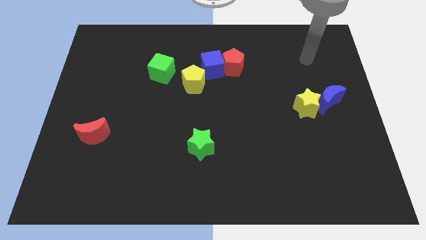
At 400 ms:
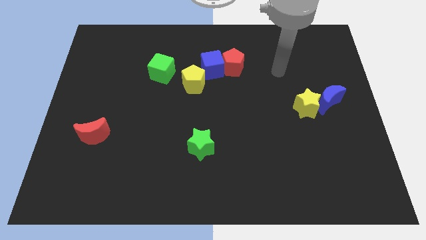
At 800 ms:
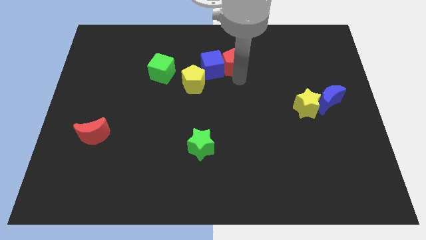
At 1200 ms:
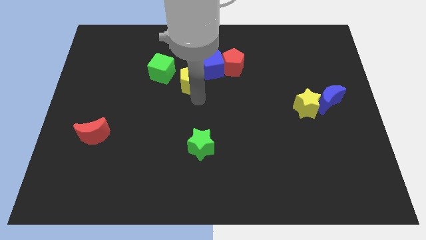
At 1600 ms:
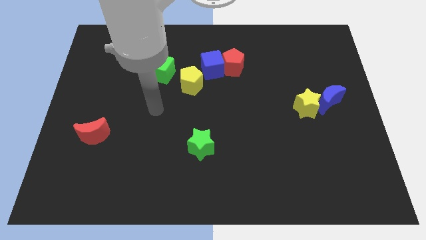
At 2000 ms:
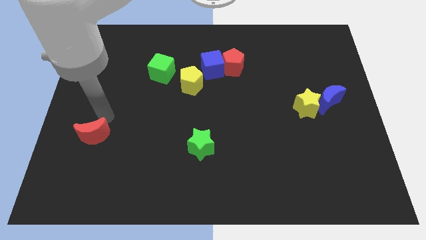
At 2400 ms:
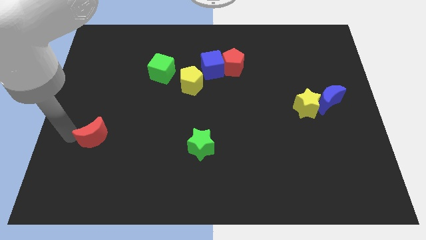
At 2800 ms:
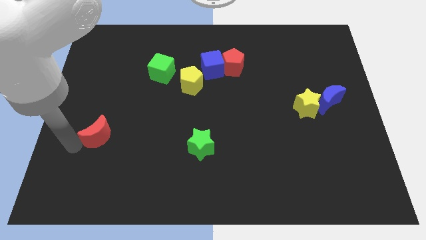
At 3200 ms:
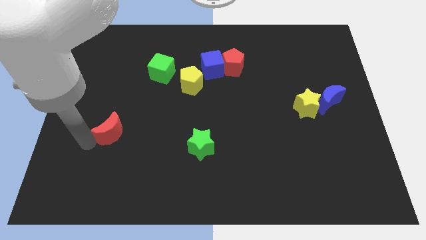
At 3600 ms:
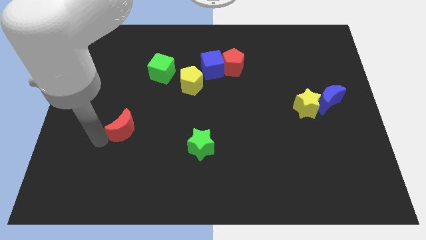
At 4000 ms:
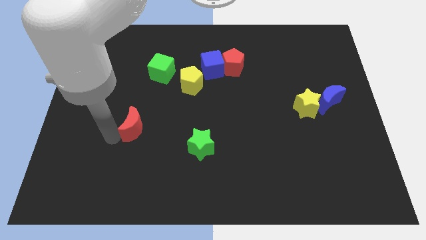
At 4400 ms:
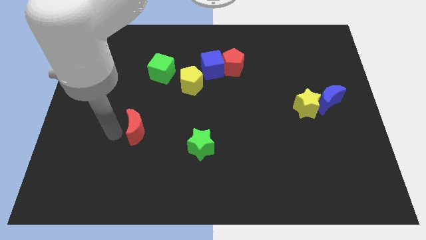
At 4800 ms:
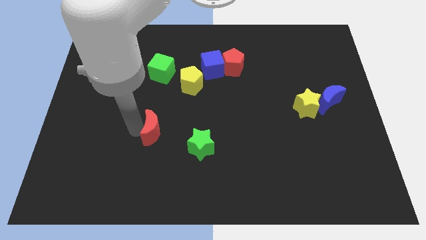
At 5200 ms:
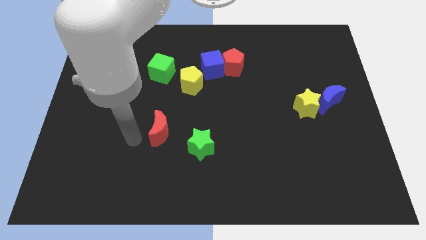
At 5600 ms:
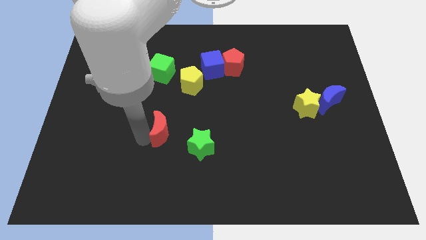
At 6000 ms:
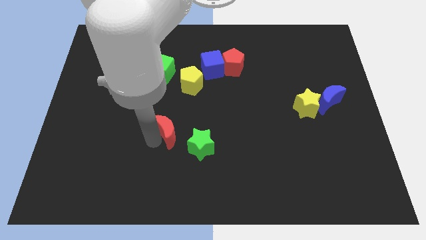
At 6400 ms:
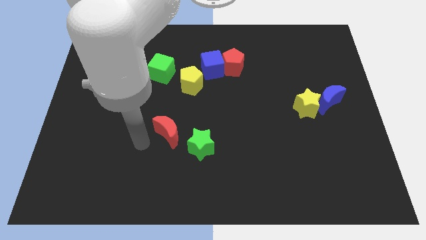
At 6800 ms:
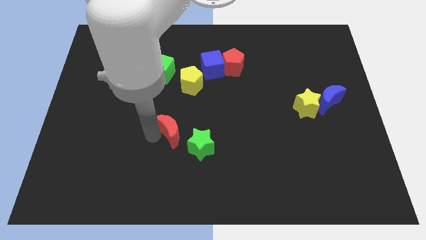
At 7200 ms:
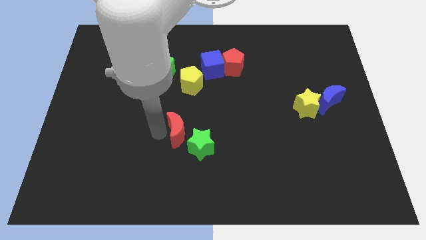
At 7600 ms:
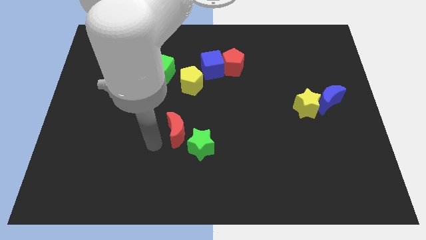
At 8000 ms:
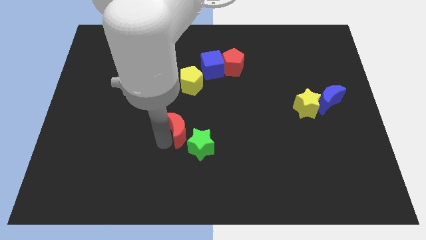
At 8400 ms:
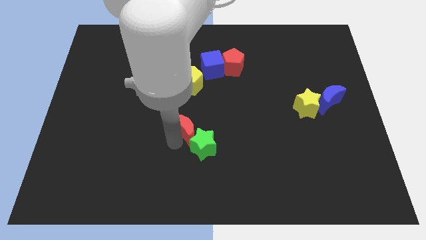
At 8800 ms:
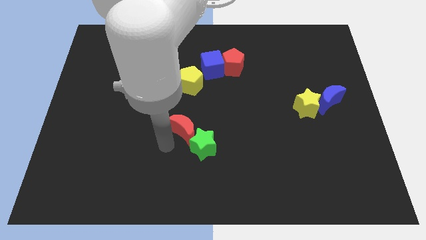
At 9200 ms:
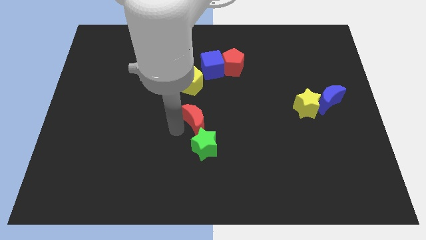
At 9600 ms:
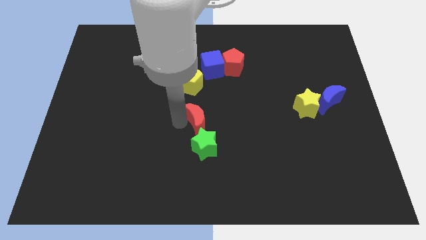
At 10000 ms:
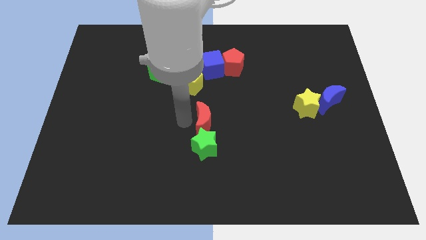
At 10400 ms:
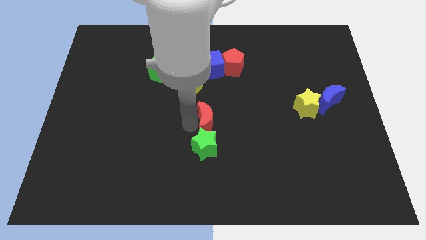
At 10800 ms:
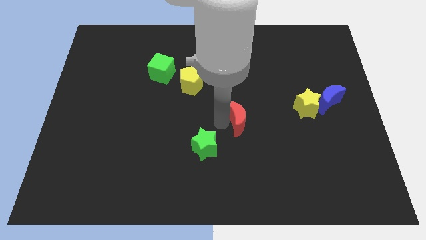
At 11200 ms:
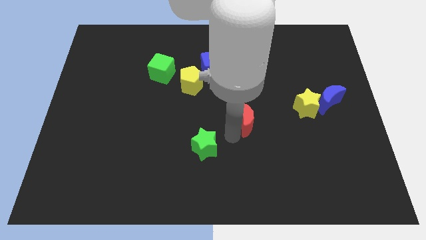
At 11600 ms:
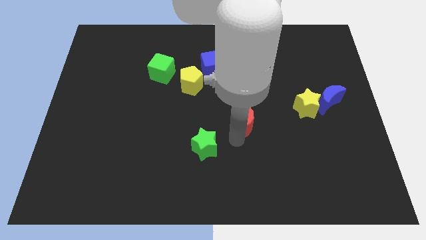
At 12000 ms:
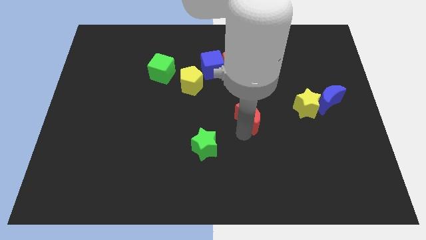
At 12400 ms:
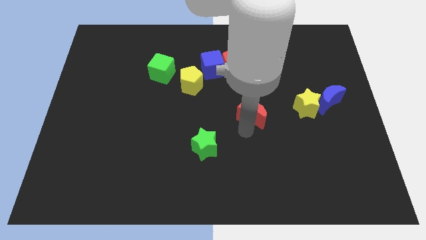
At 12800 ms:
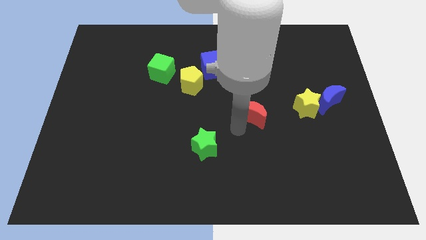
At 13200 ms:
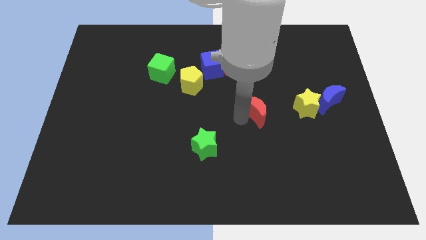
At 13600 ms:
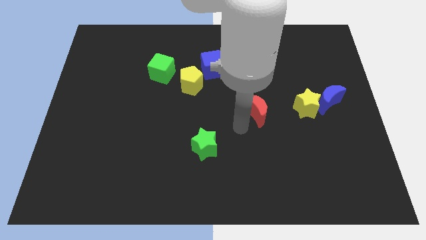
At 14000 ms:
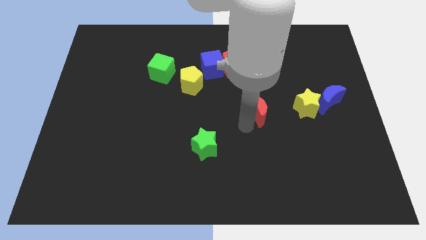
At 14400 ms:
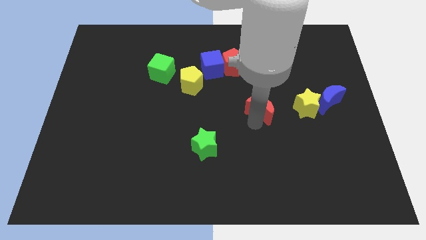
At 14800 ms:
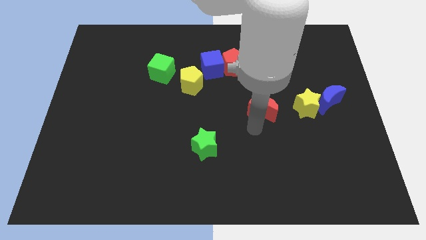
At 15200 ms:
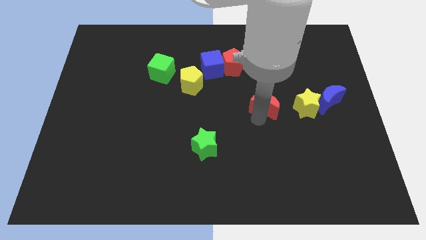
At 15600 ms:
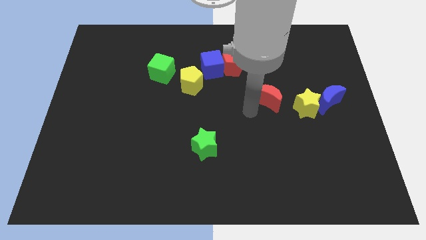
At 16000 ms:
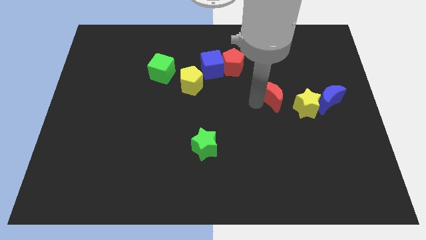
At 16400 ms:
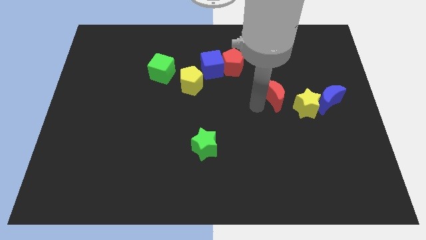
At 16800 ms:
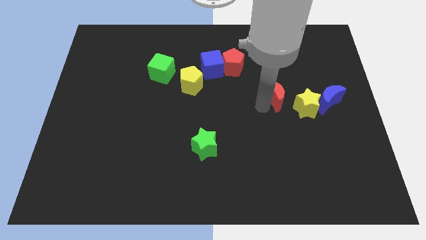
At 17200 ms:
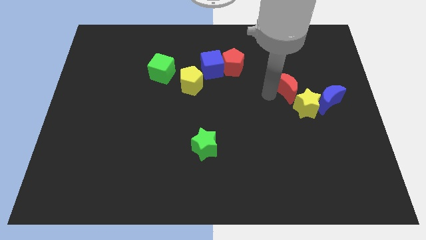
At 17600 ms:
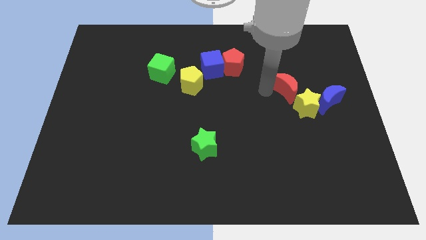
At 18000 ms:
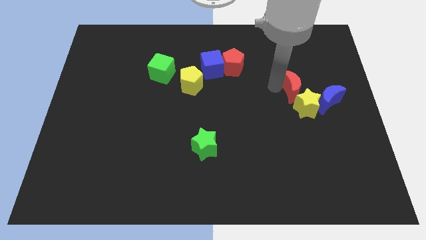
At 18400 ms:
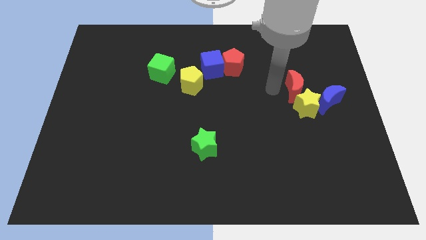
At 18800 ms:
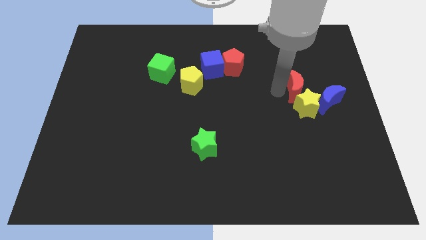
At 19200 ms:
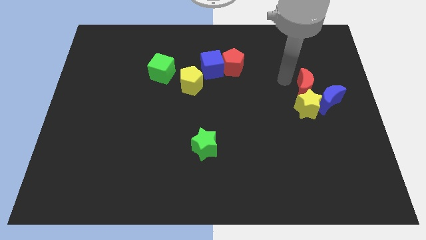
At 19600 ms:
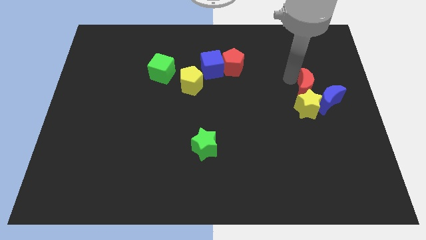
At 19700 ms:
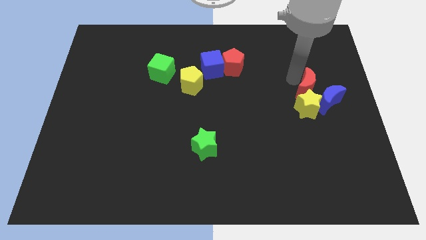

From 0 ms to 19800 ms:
put the red moon next to the blue moon

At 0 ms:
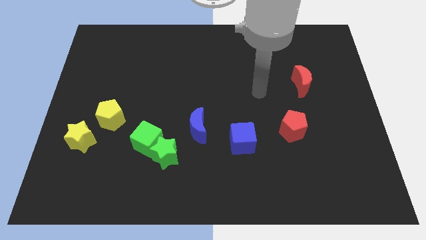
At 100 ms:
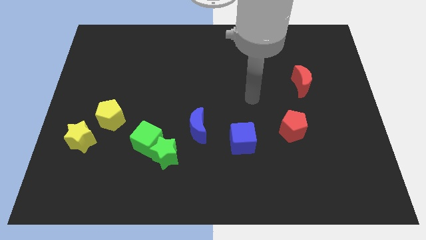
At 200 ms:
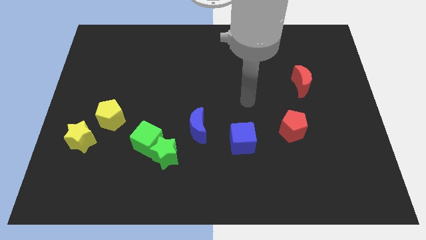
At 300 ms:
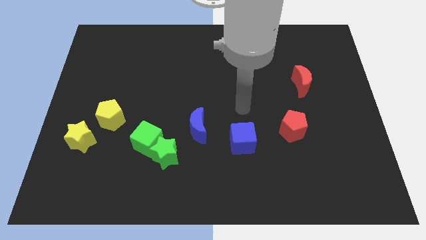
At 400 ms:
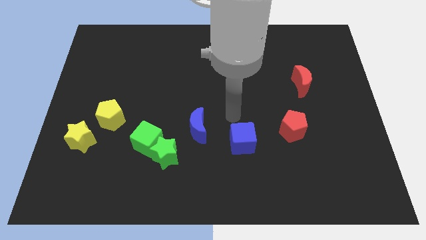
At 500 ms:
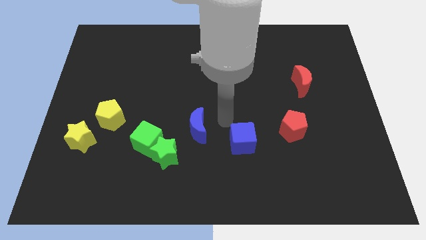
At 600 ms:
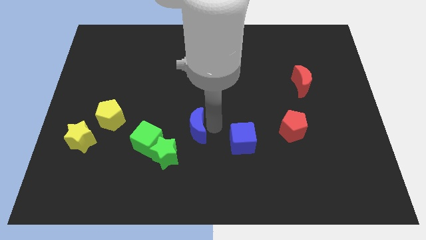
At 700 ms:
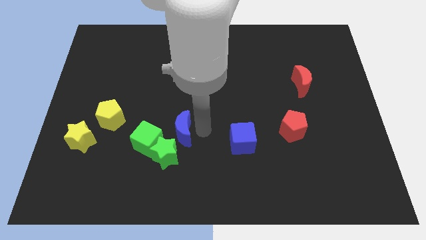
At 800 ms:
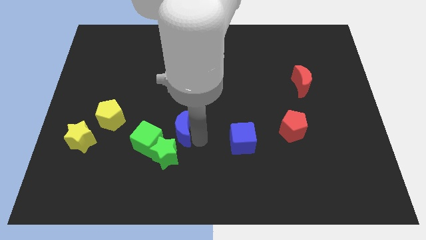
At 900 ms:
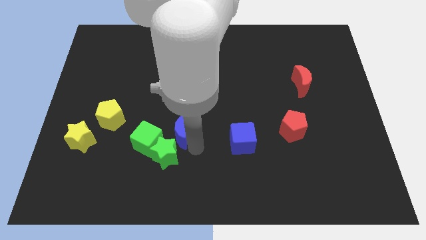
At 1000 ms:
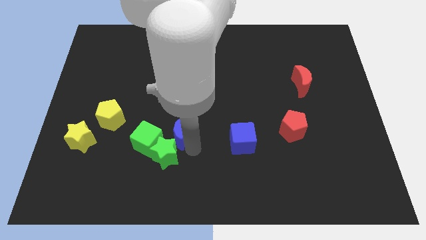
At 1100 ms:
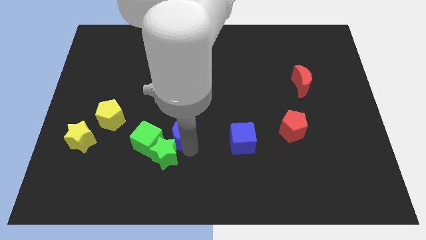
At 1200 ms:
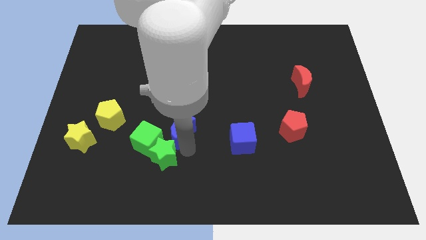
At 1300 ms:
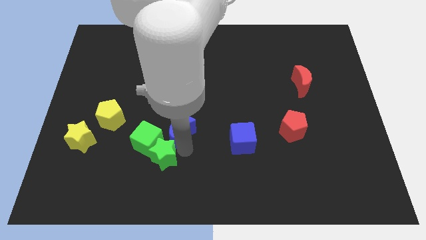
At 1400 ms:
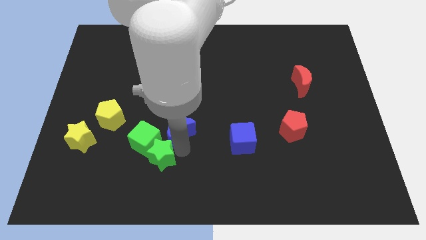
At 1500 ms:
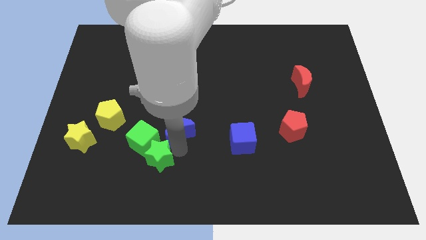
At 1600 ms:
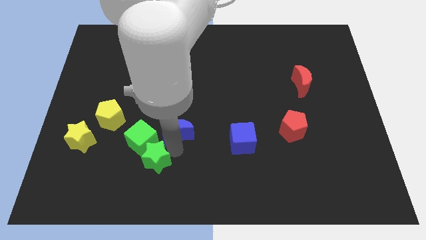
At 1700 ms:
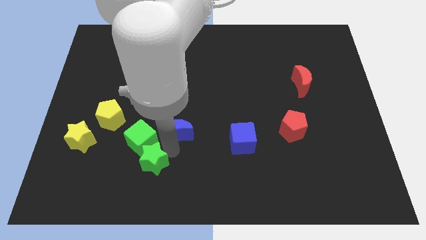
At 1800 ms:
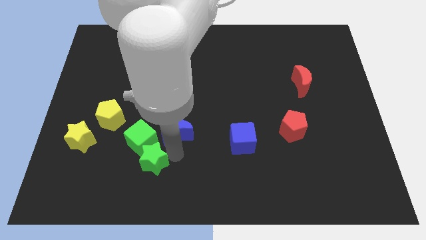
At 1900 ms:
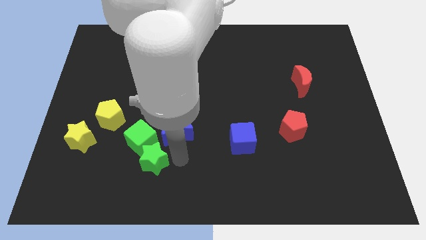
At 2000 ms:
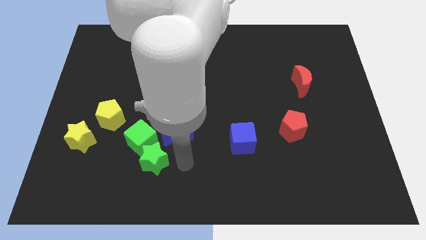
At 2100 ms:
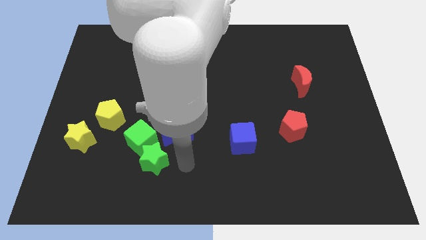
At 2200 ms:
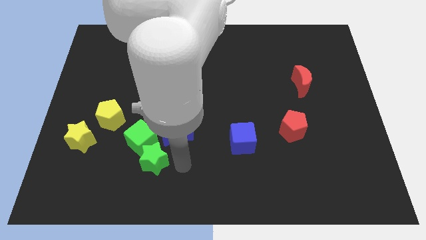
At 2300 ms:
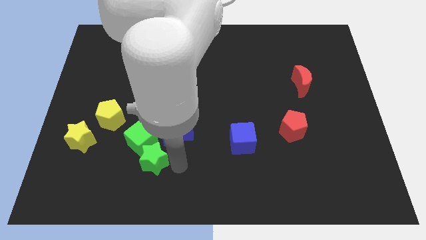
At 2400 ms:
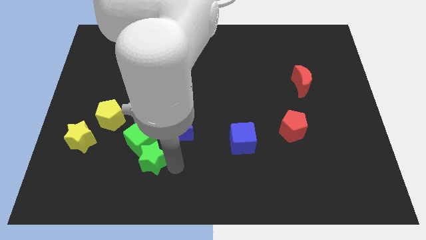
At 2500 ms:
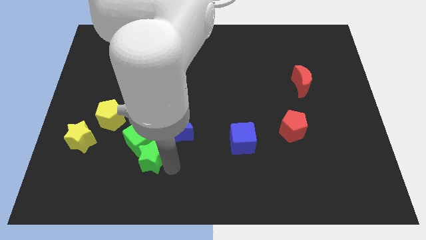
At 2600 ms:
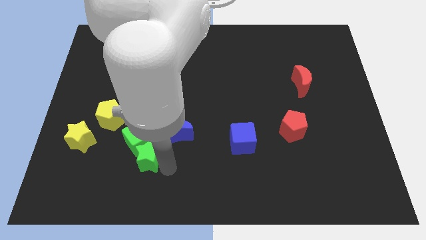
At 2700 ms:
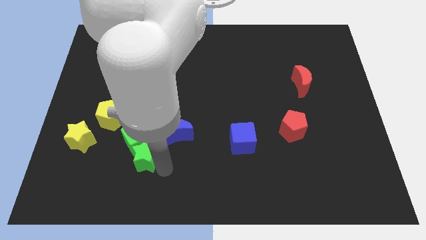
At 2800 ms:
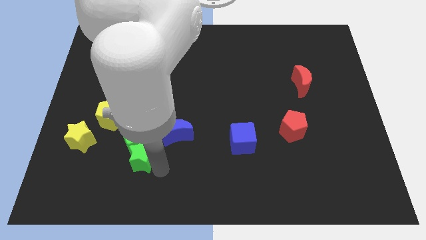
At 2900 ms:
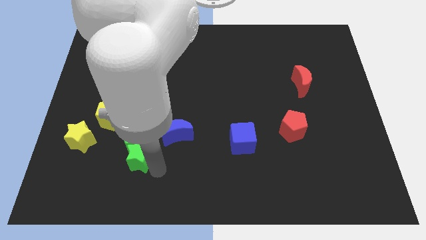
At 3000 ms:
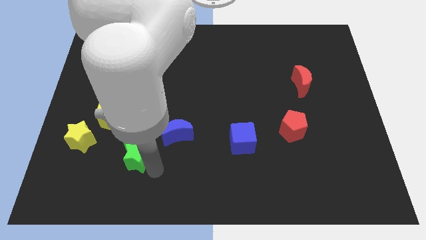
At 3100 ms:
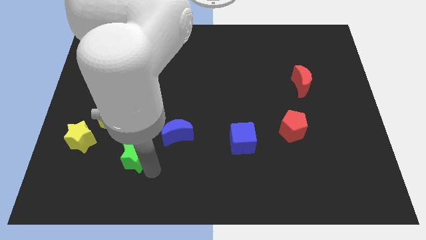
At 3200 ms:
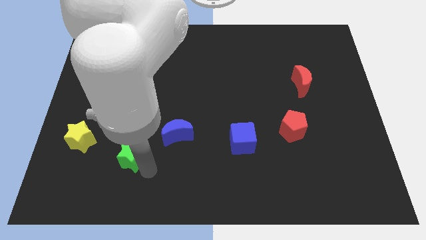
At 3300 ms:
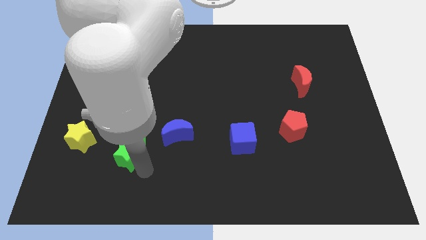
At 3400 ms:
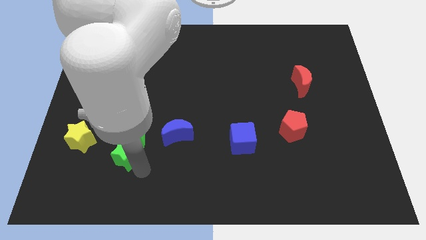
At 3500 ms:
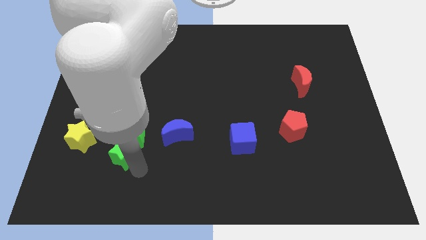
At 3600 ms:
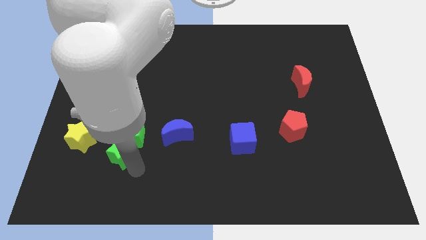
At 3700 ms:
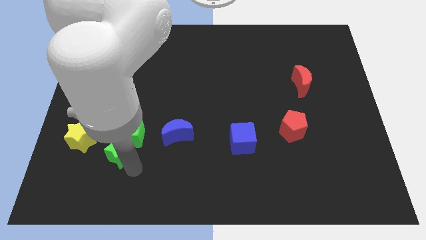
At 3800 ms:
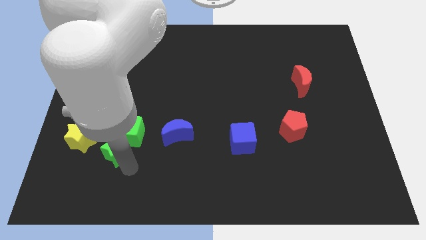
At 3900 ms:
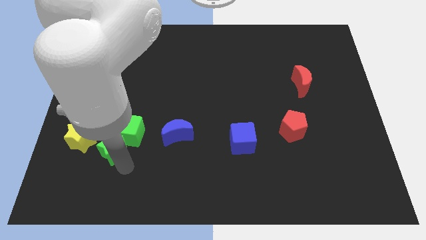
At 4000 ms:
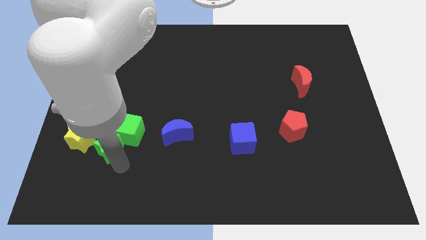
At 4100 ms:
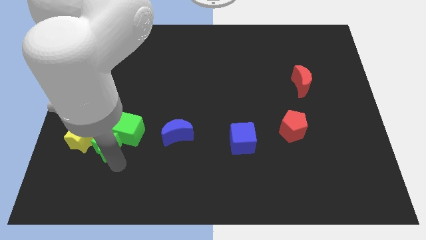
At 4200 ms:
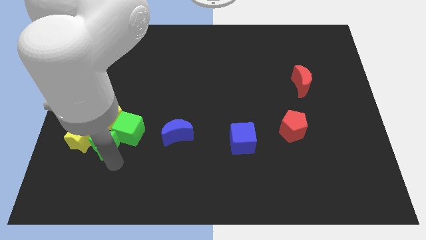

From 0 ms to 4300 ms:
move the green star close to the yellow star
